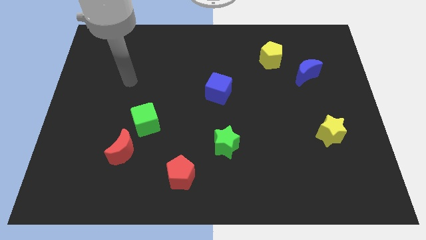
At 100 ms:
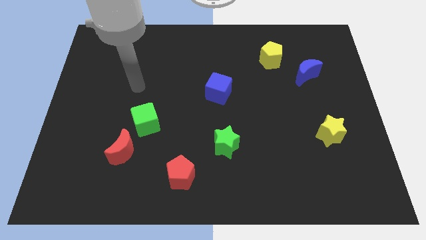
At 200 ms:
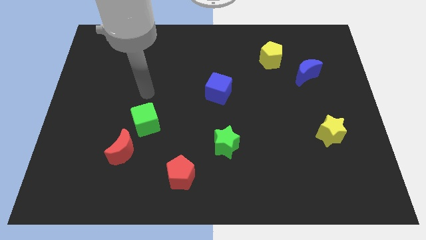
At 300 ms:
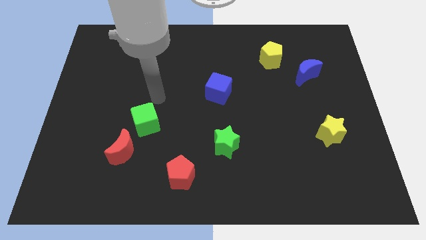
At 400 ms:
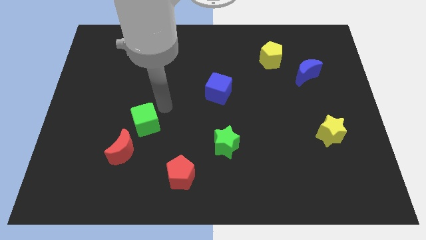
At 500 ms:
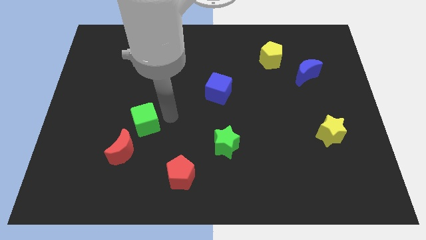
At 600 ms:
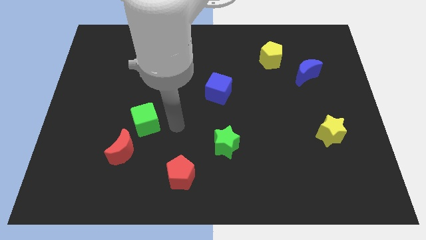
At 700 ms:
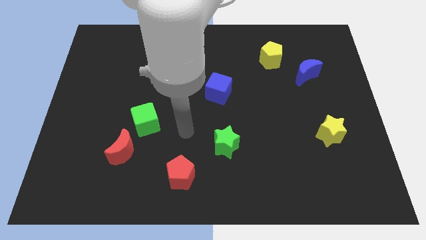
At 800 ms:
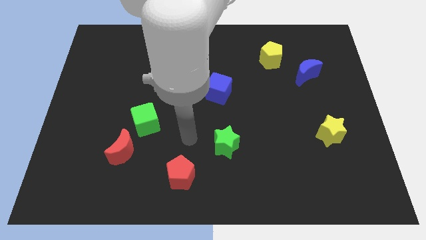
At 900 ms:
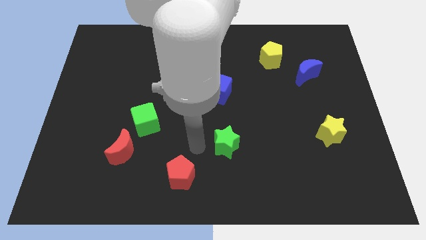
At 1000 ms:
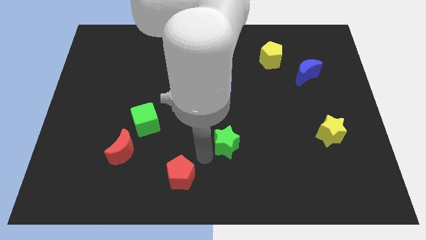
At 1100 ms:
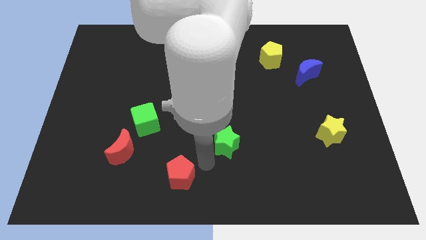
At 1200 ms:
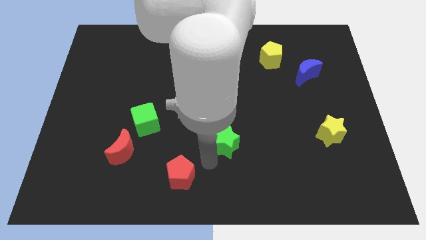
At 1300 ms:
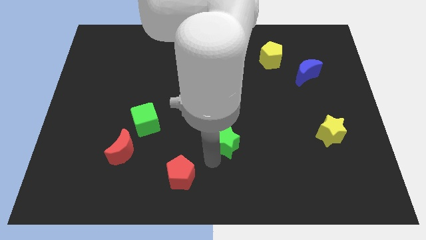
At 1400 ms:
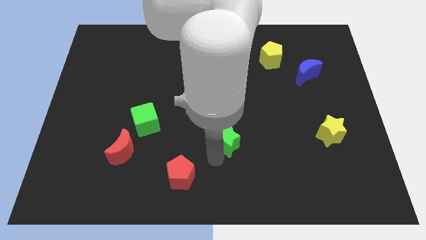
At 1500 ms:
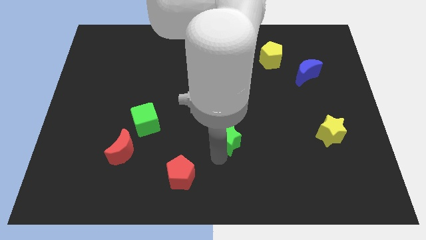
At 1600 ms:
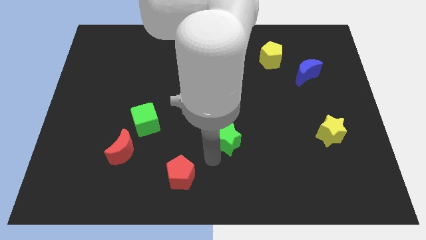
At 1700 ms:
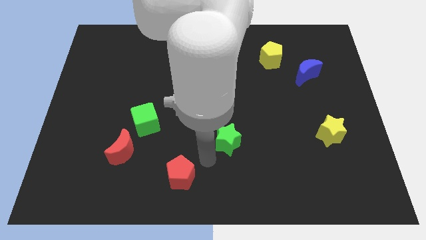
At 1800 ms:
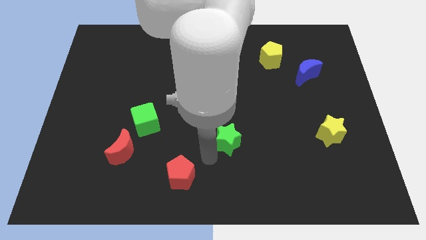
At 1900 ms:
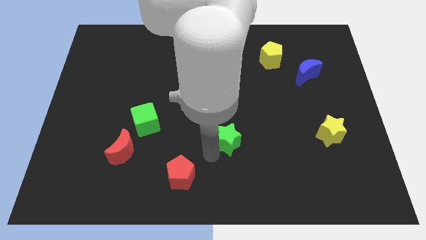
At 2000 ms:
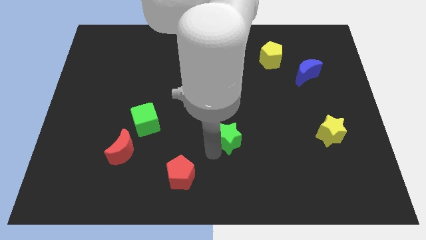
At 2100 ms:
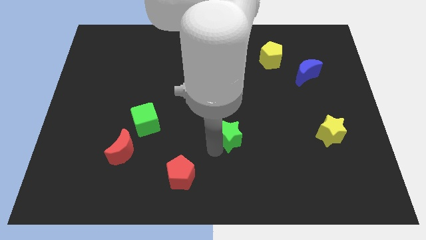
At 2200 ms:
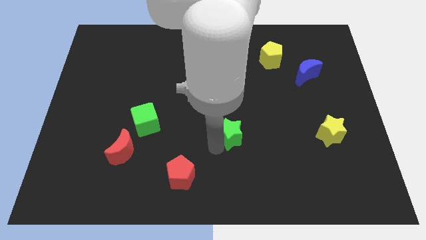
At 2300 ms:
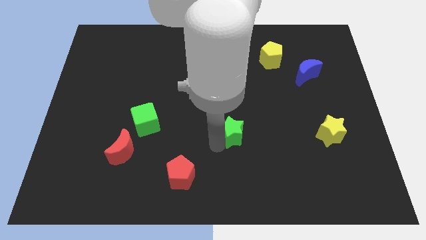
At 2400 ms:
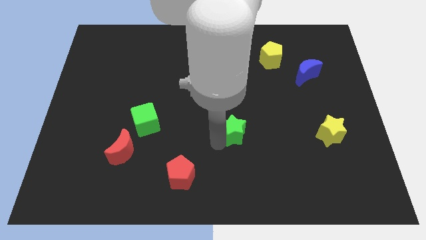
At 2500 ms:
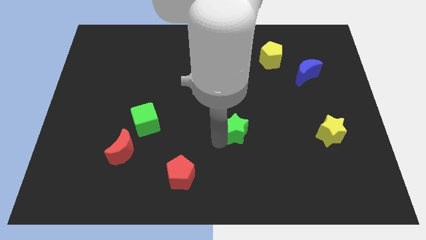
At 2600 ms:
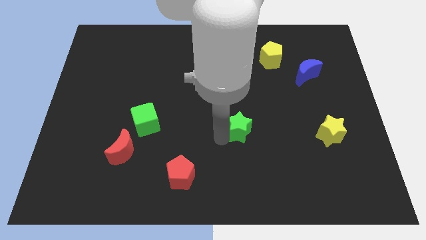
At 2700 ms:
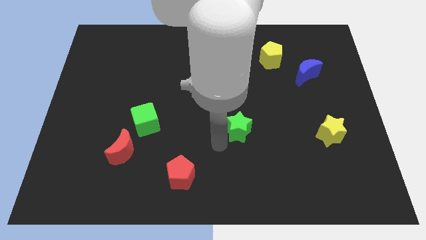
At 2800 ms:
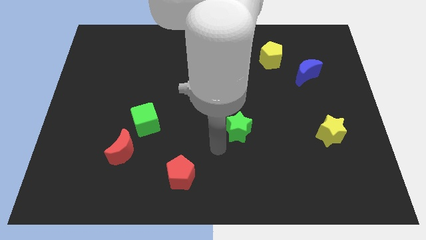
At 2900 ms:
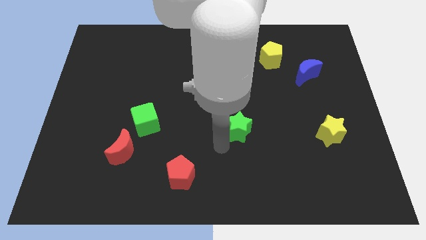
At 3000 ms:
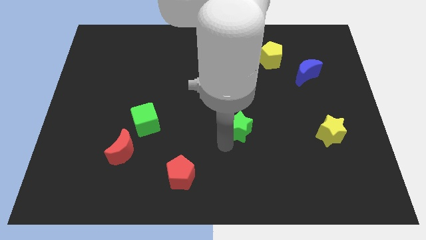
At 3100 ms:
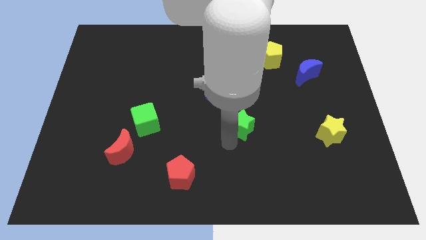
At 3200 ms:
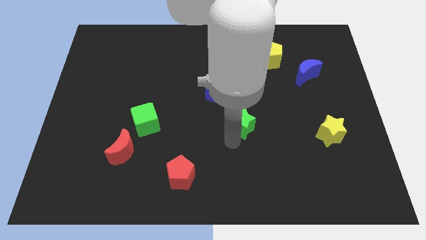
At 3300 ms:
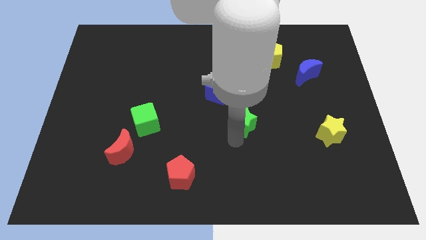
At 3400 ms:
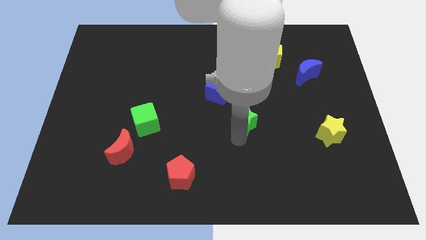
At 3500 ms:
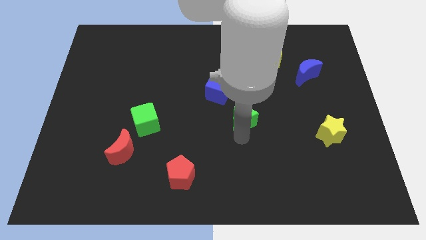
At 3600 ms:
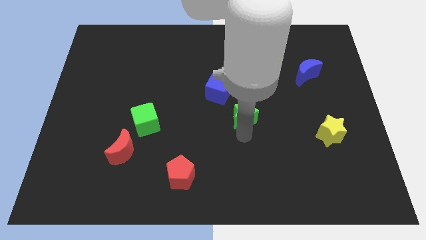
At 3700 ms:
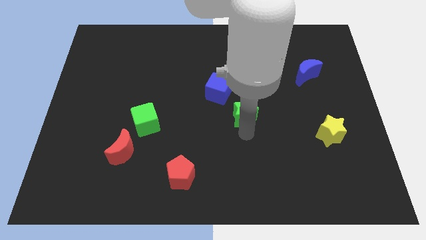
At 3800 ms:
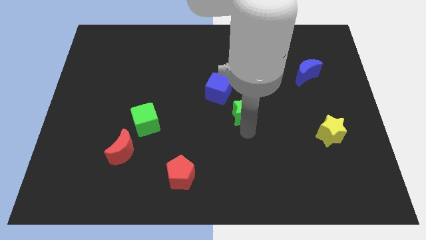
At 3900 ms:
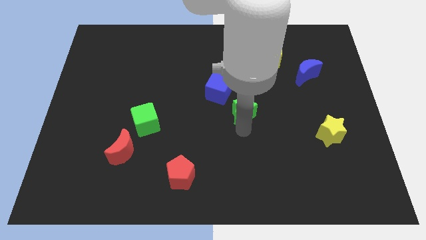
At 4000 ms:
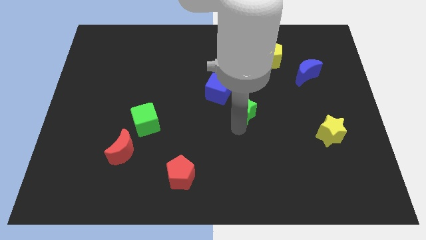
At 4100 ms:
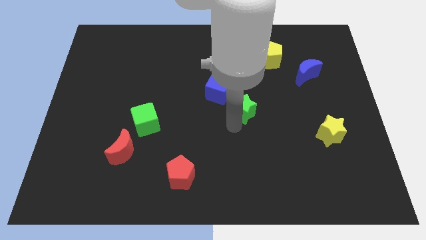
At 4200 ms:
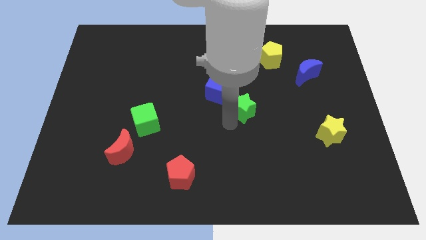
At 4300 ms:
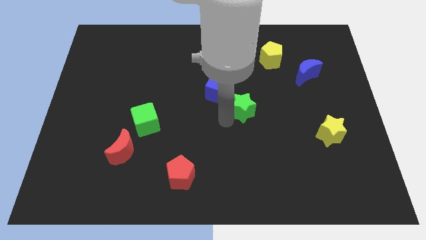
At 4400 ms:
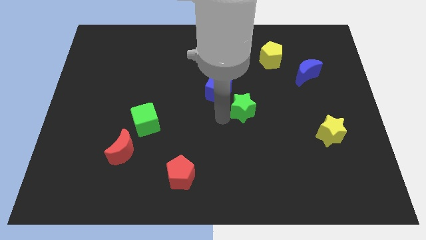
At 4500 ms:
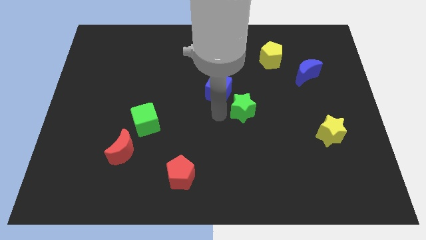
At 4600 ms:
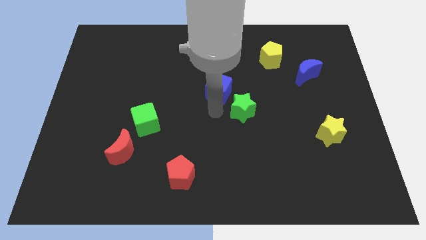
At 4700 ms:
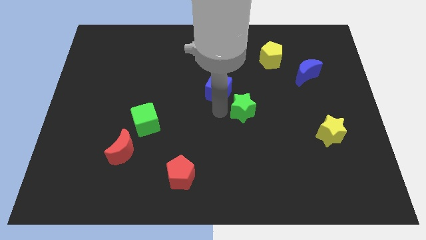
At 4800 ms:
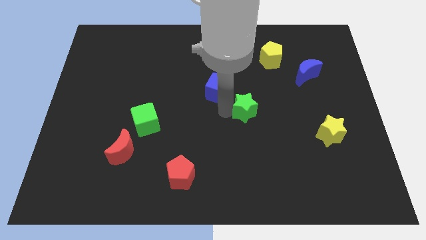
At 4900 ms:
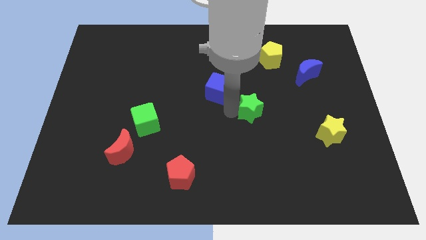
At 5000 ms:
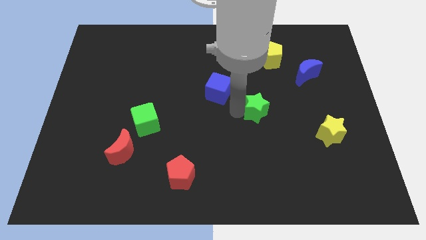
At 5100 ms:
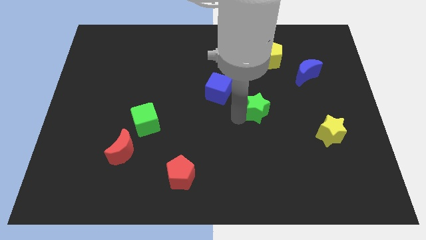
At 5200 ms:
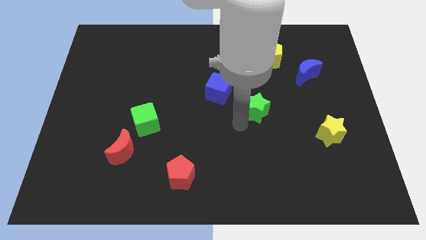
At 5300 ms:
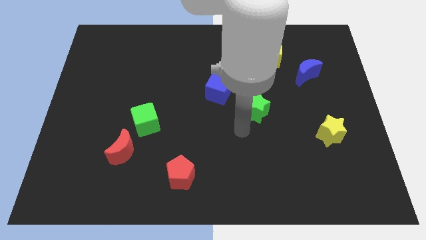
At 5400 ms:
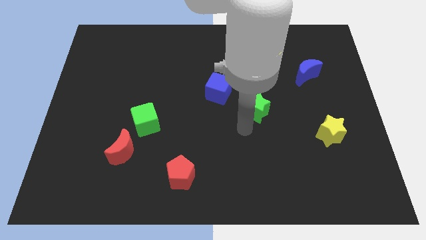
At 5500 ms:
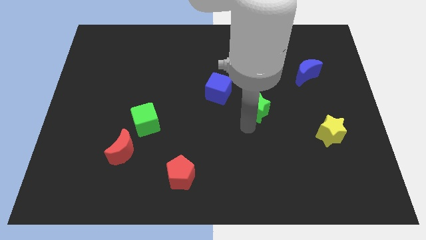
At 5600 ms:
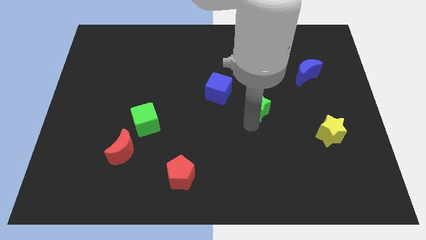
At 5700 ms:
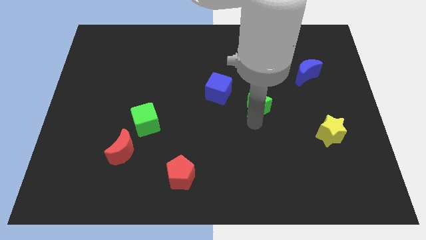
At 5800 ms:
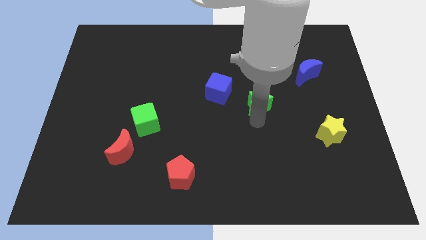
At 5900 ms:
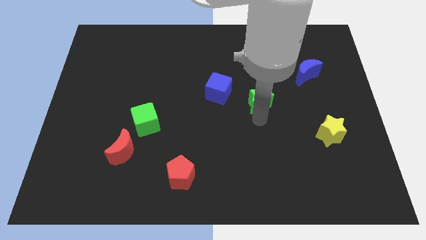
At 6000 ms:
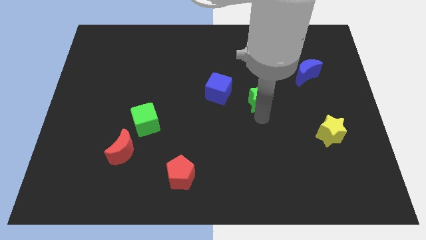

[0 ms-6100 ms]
move the green star to the bottom of the yellow pentagon

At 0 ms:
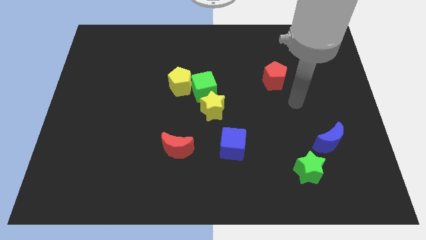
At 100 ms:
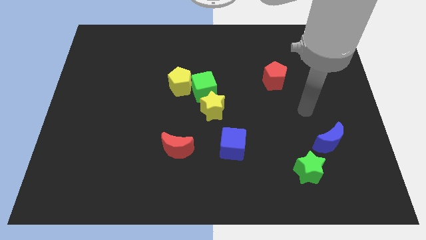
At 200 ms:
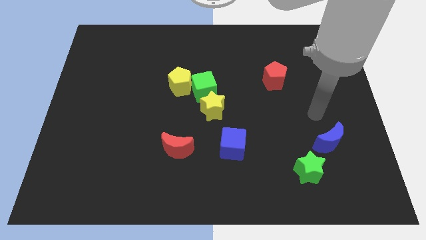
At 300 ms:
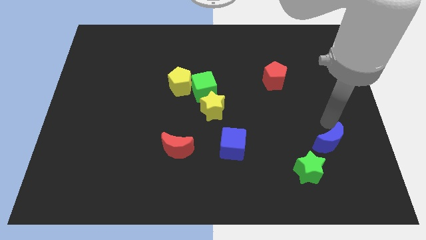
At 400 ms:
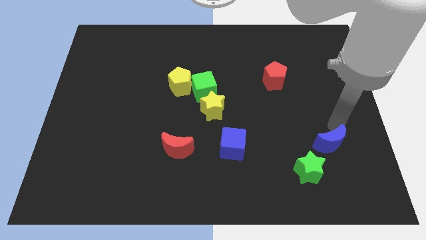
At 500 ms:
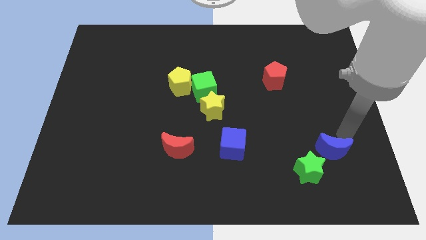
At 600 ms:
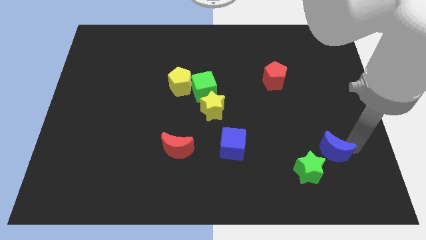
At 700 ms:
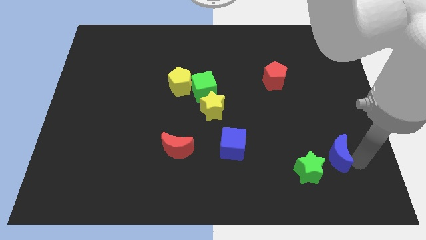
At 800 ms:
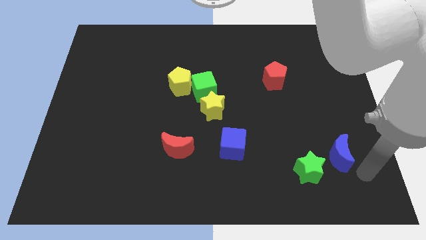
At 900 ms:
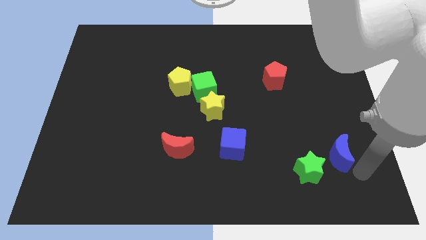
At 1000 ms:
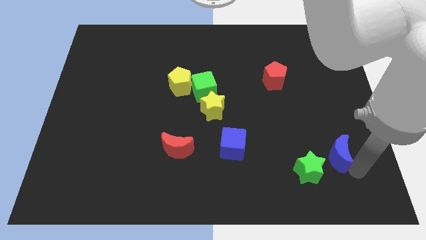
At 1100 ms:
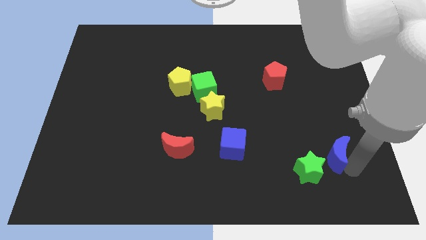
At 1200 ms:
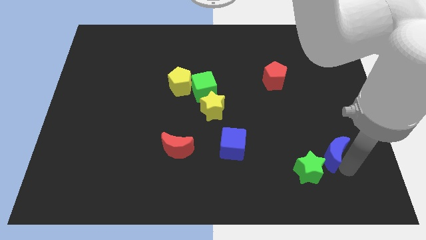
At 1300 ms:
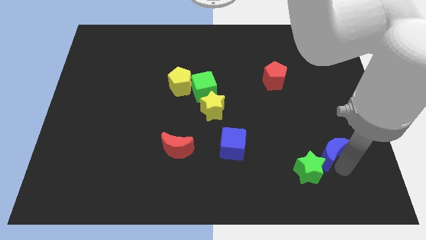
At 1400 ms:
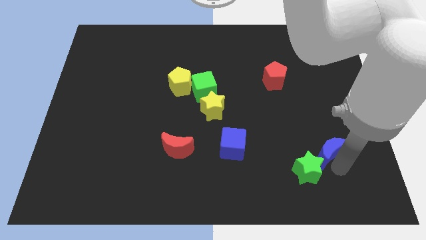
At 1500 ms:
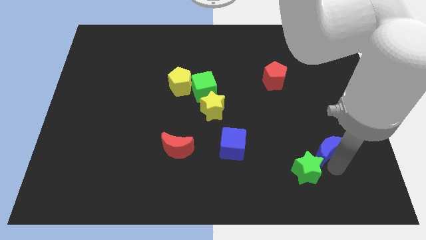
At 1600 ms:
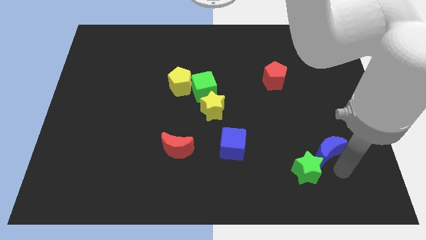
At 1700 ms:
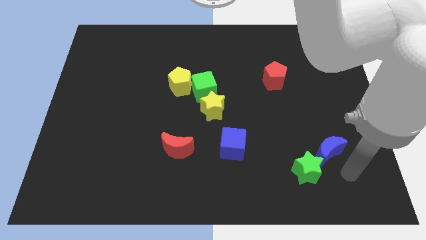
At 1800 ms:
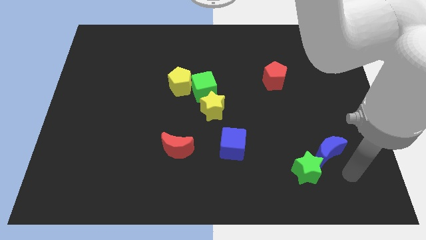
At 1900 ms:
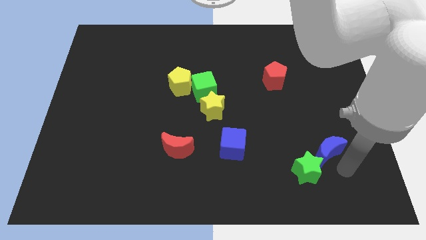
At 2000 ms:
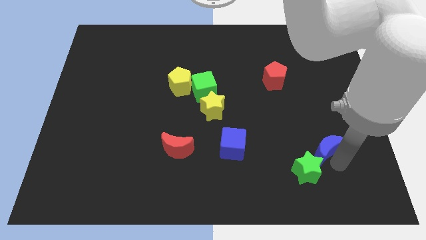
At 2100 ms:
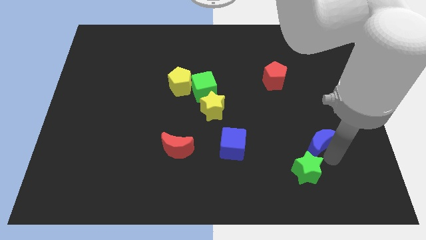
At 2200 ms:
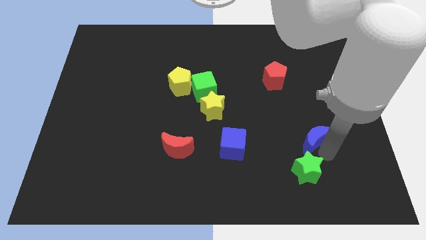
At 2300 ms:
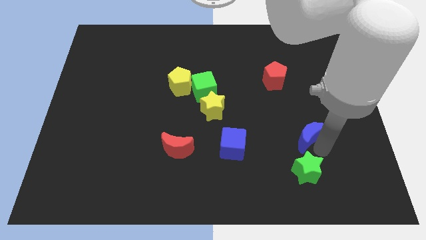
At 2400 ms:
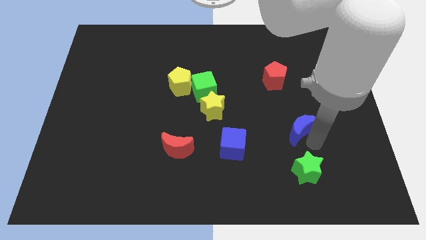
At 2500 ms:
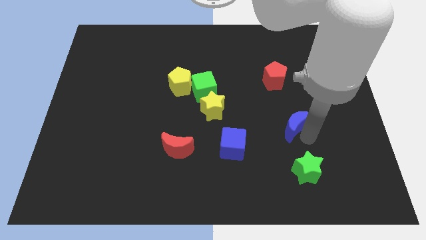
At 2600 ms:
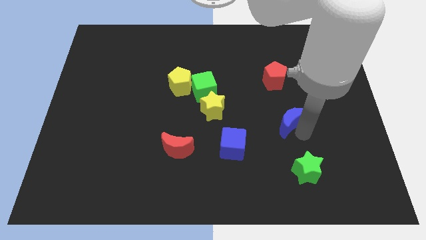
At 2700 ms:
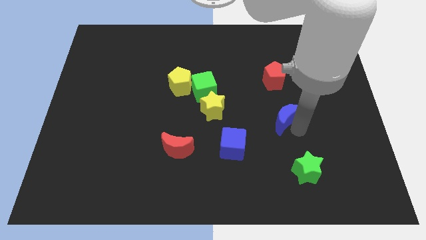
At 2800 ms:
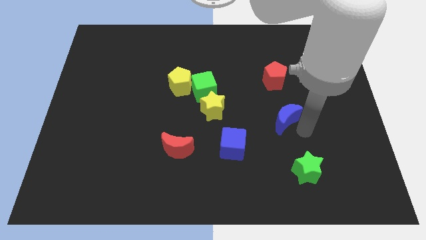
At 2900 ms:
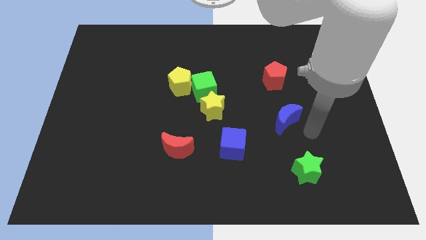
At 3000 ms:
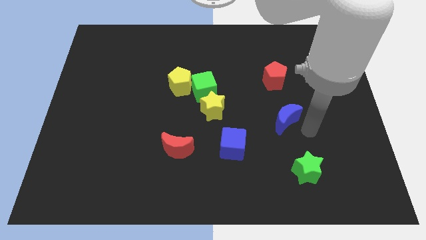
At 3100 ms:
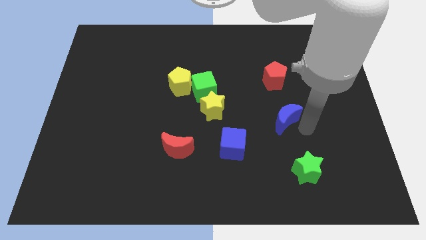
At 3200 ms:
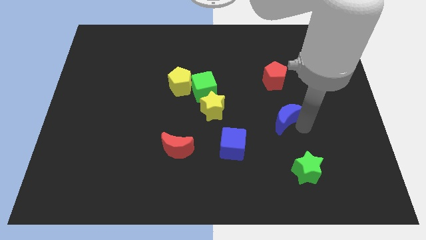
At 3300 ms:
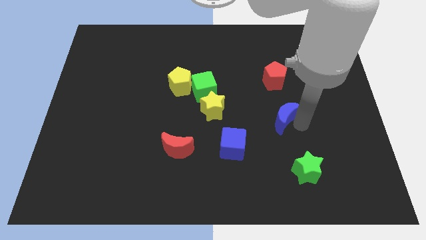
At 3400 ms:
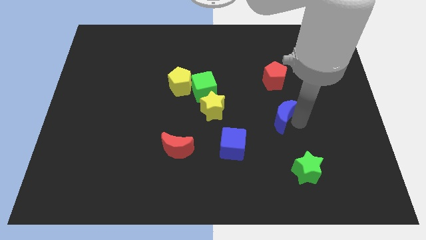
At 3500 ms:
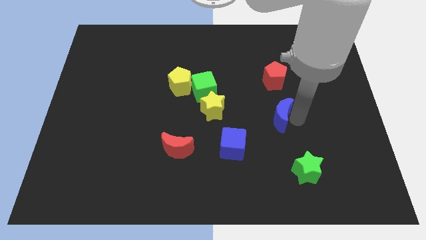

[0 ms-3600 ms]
slide the blue moon to the right of the yellow star
